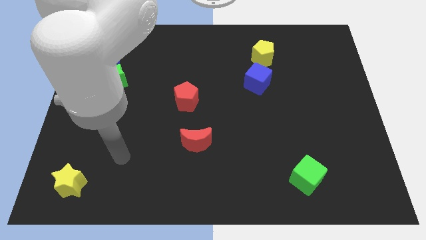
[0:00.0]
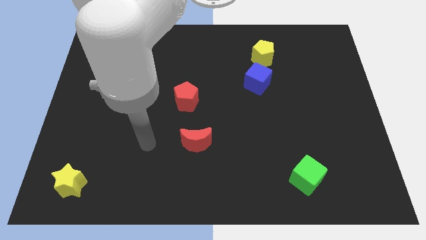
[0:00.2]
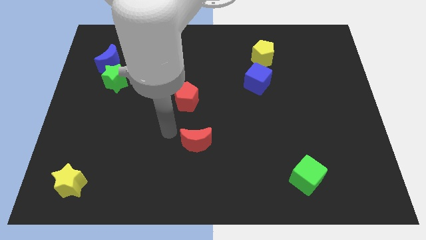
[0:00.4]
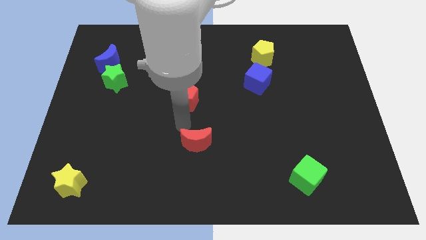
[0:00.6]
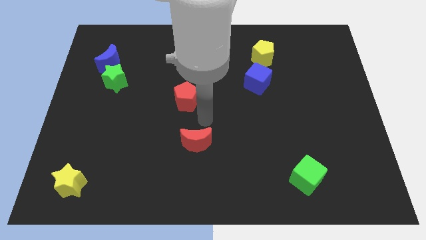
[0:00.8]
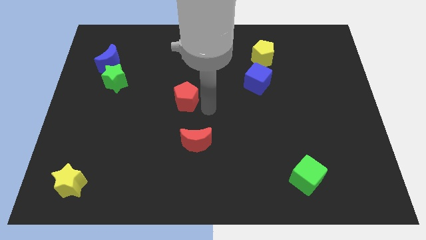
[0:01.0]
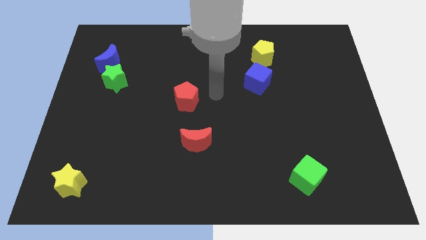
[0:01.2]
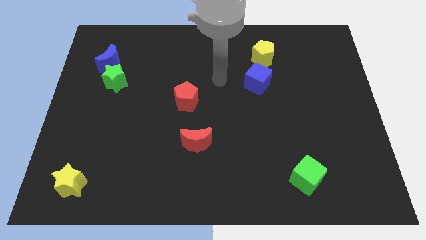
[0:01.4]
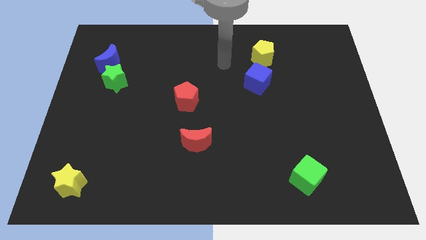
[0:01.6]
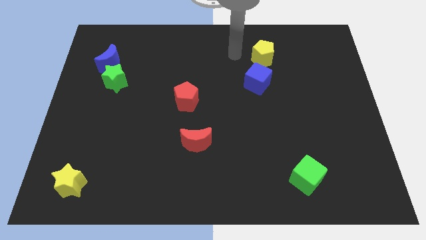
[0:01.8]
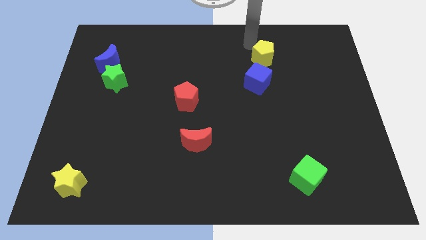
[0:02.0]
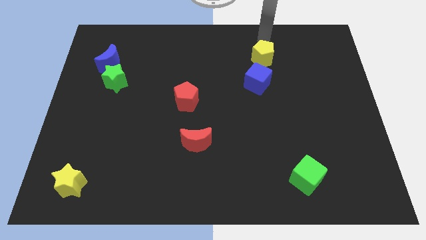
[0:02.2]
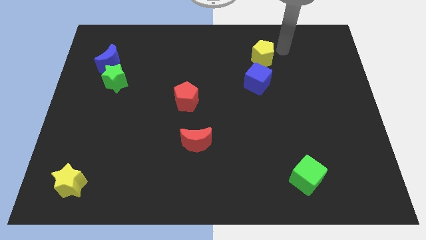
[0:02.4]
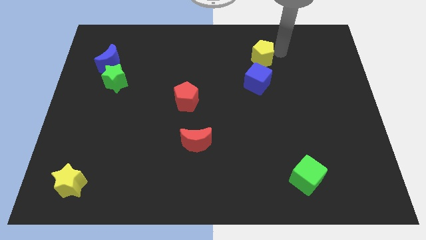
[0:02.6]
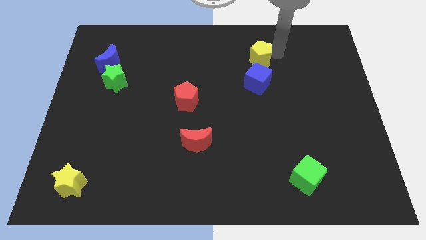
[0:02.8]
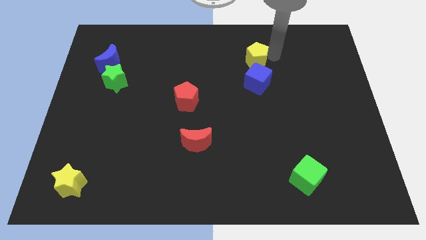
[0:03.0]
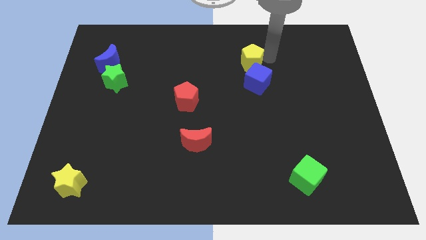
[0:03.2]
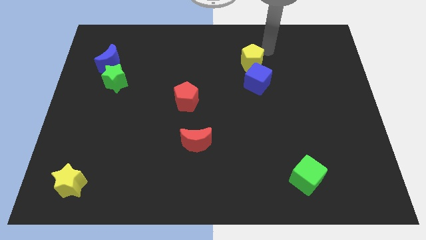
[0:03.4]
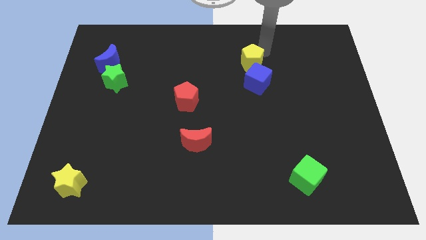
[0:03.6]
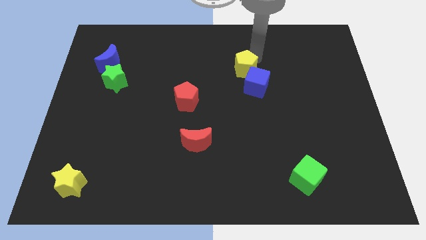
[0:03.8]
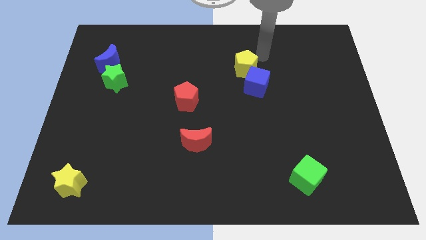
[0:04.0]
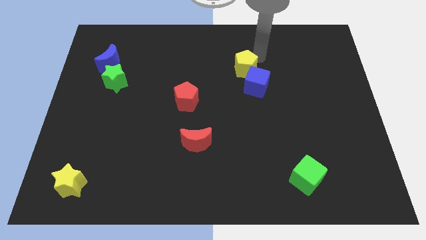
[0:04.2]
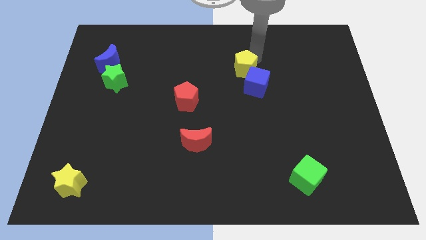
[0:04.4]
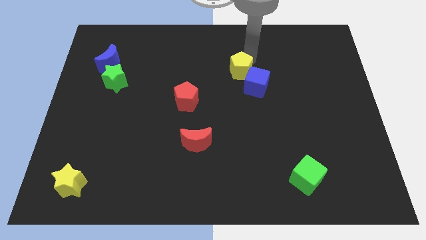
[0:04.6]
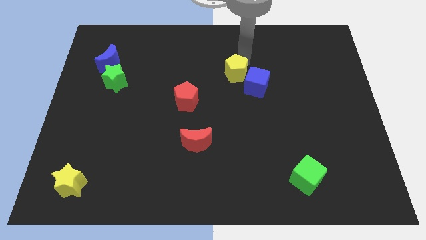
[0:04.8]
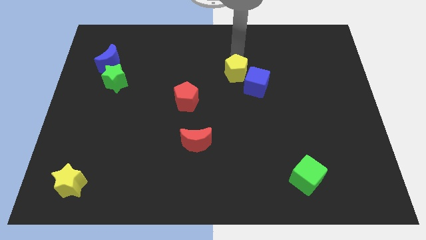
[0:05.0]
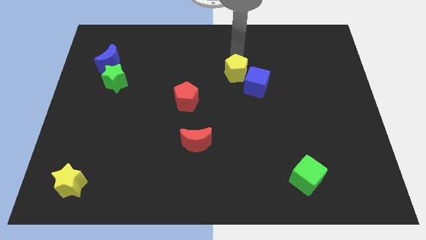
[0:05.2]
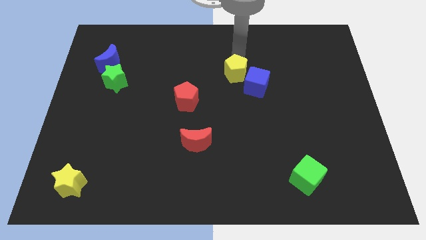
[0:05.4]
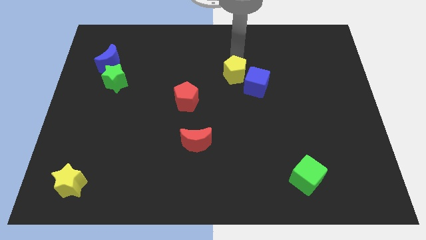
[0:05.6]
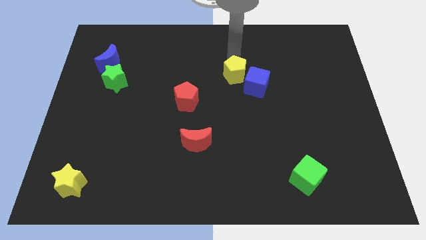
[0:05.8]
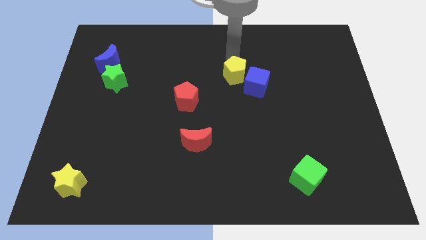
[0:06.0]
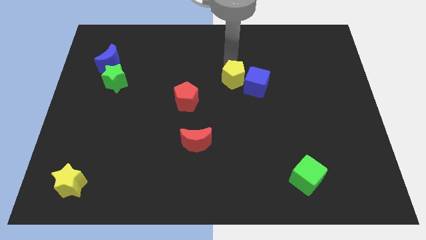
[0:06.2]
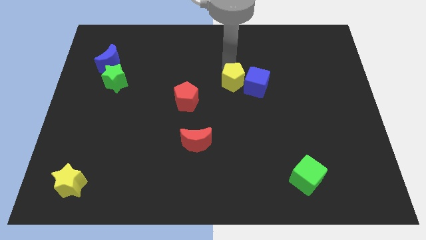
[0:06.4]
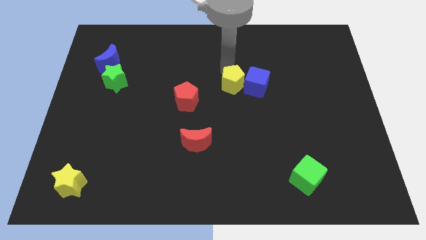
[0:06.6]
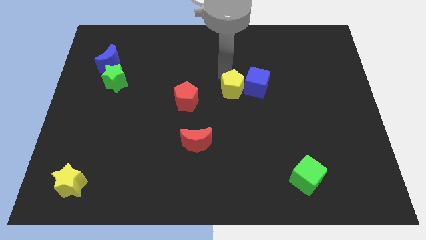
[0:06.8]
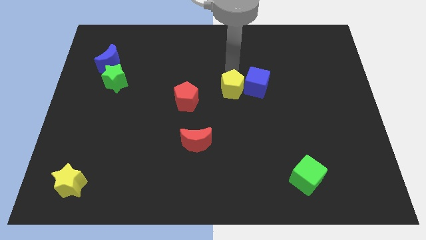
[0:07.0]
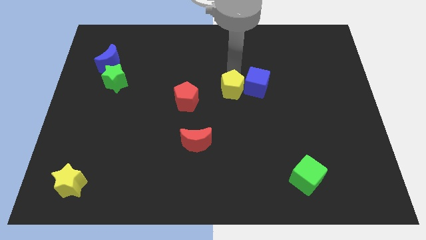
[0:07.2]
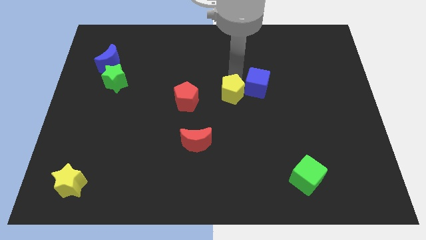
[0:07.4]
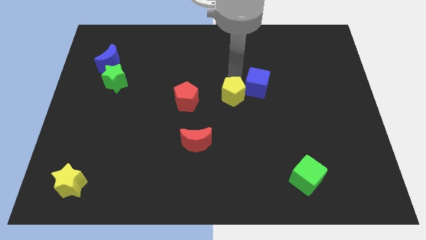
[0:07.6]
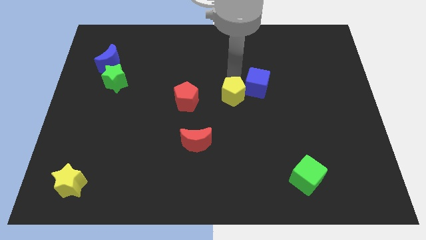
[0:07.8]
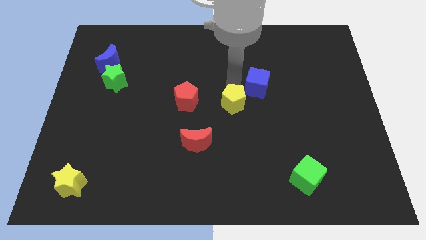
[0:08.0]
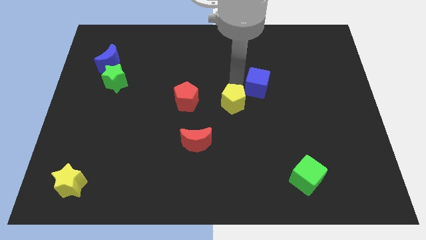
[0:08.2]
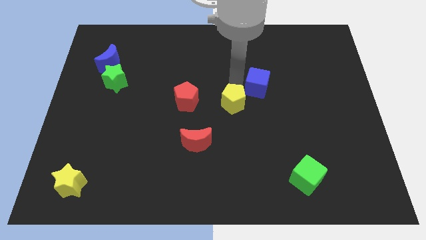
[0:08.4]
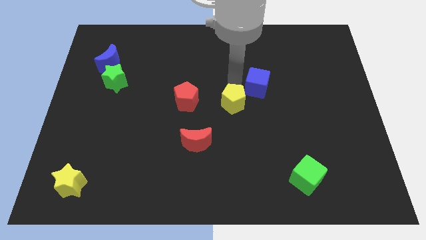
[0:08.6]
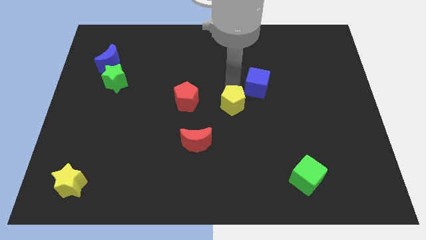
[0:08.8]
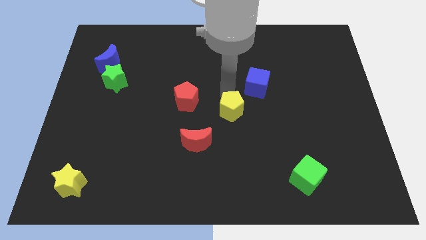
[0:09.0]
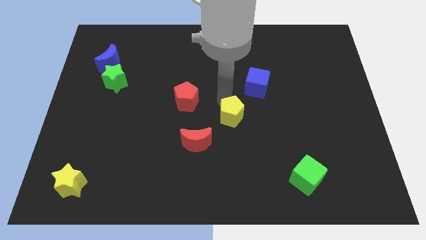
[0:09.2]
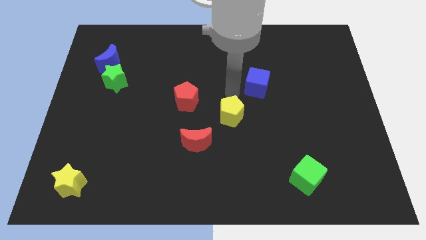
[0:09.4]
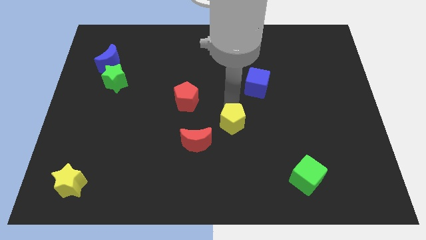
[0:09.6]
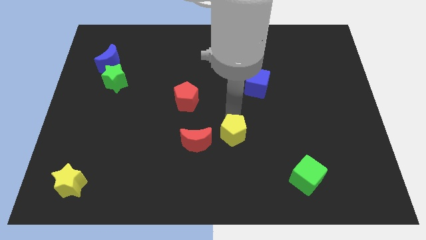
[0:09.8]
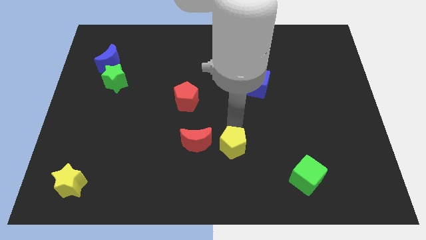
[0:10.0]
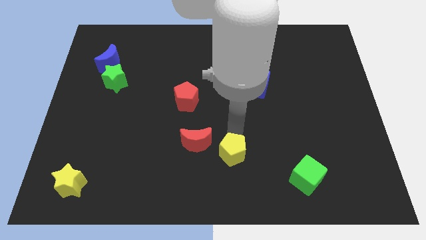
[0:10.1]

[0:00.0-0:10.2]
push the yellow pentagon diagonally down and to the right of the red moon

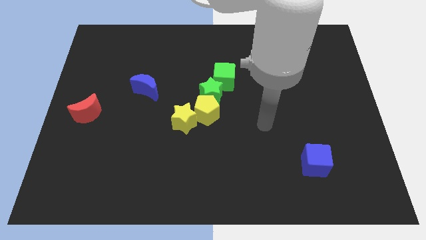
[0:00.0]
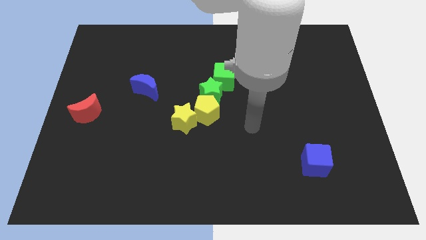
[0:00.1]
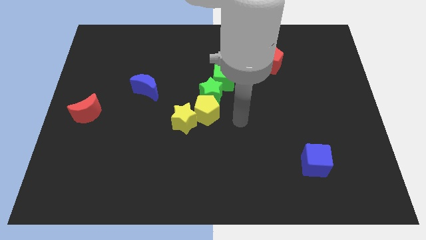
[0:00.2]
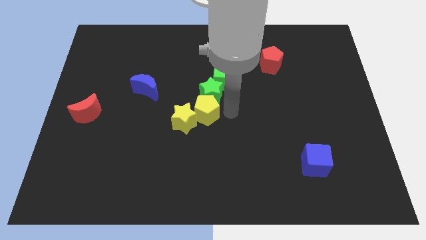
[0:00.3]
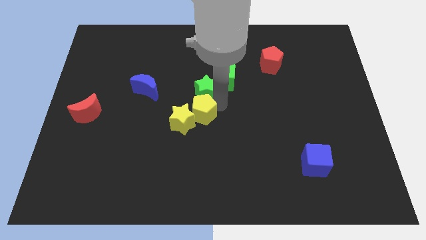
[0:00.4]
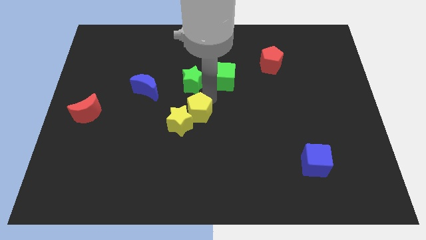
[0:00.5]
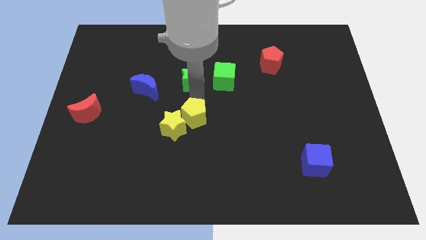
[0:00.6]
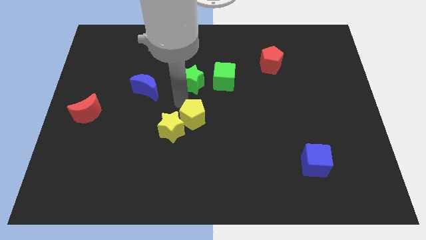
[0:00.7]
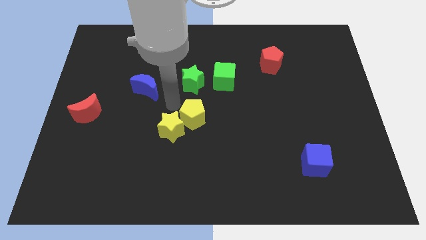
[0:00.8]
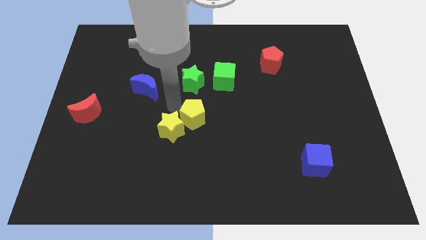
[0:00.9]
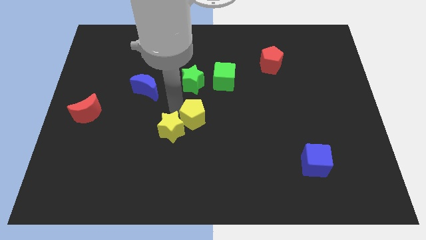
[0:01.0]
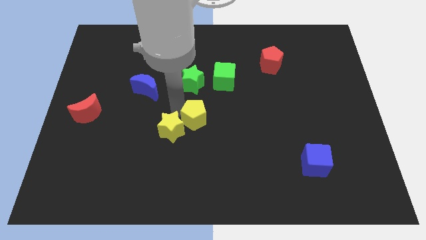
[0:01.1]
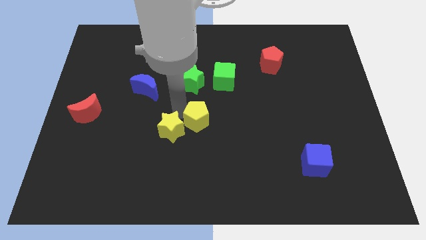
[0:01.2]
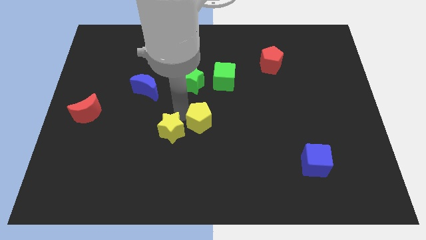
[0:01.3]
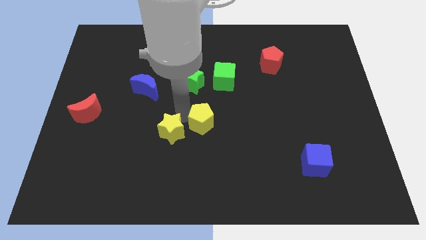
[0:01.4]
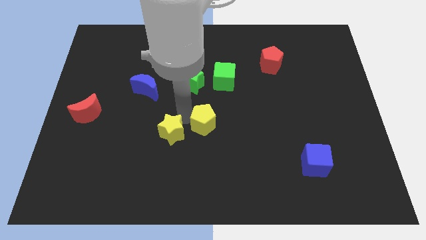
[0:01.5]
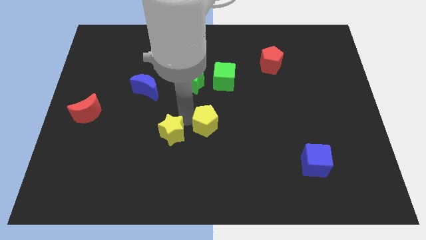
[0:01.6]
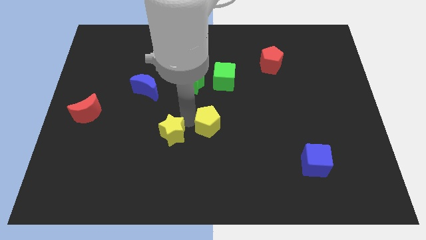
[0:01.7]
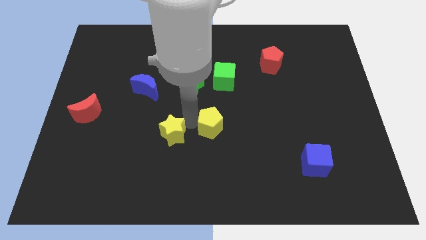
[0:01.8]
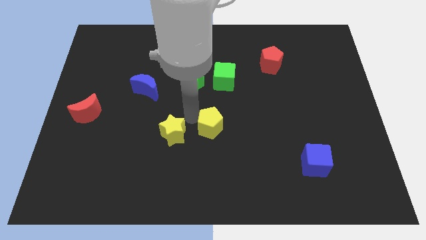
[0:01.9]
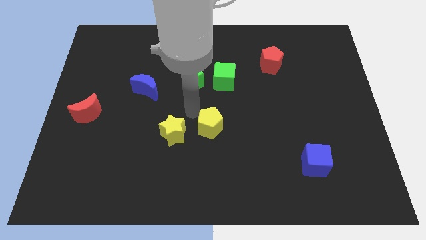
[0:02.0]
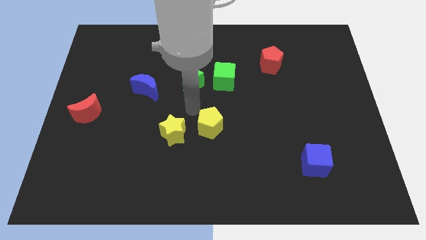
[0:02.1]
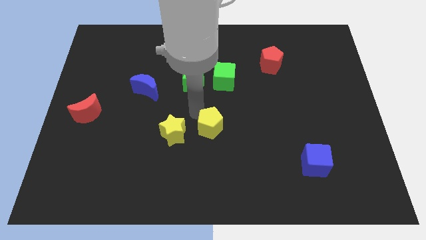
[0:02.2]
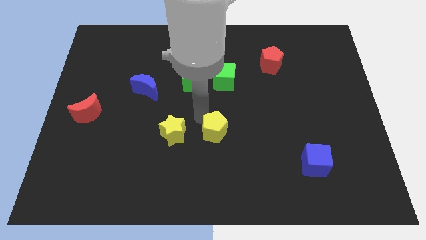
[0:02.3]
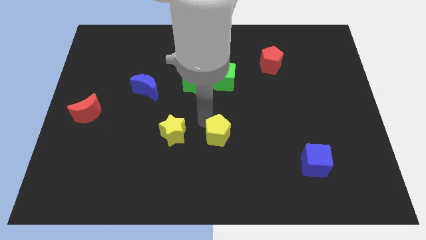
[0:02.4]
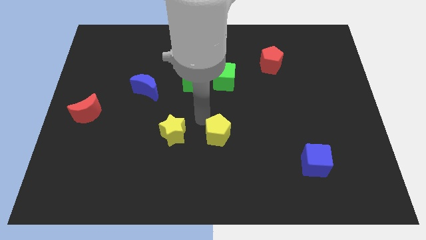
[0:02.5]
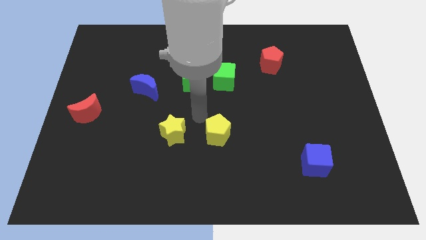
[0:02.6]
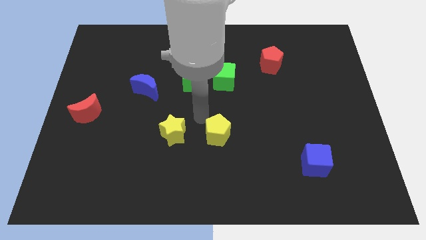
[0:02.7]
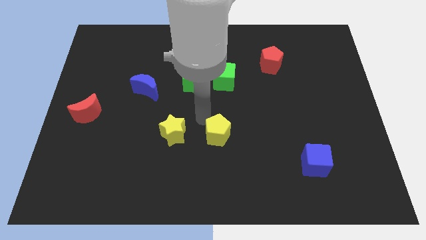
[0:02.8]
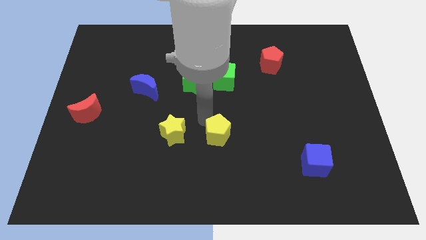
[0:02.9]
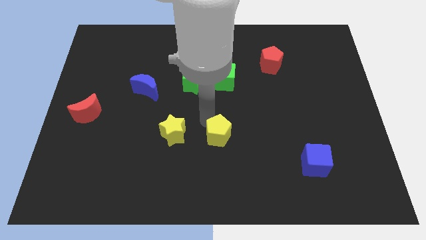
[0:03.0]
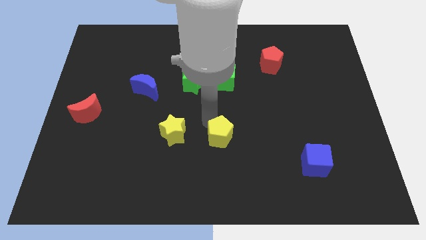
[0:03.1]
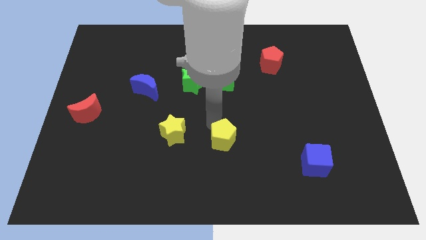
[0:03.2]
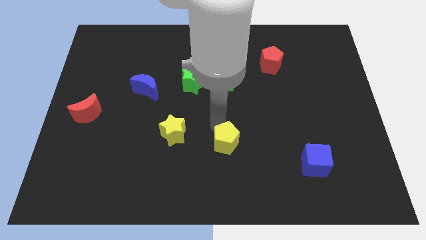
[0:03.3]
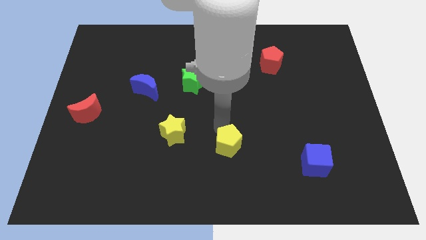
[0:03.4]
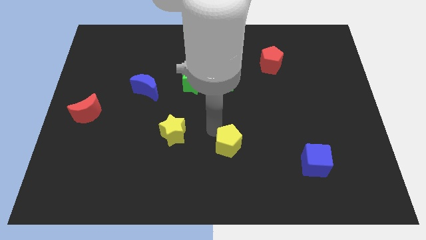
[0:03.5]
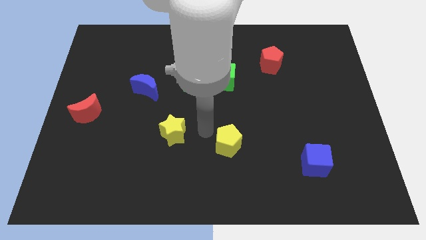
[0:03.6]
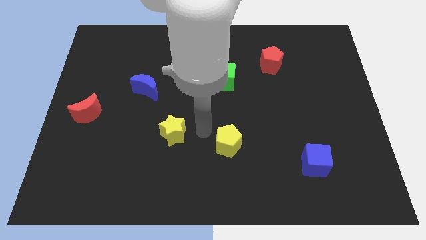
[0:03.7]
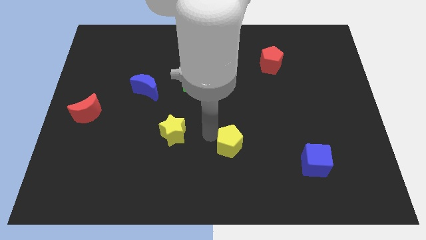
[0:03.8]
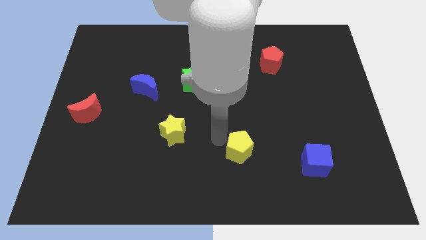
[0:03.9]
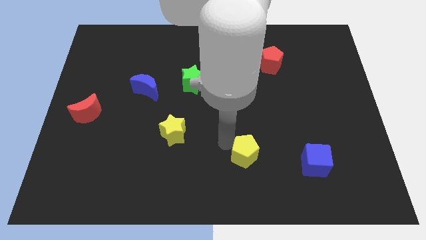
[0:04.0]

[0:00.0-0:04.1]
move the yellow pentagon to the left side of the blue cube
